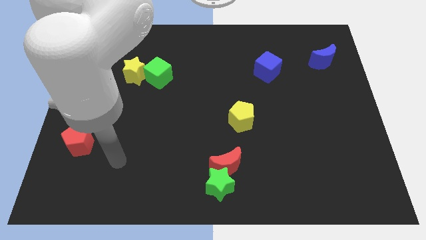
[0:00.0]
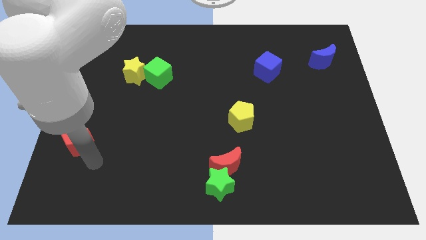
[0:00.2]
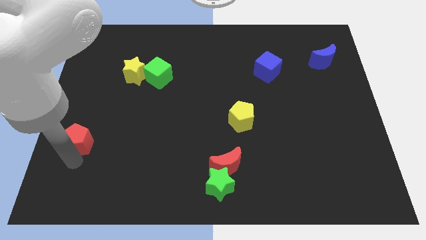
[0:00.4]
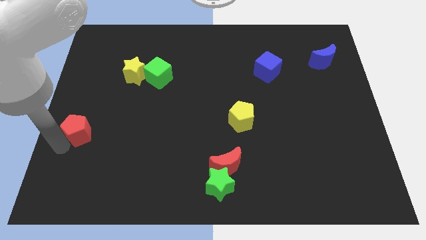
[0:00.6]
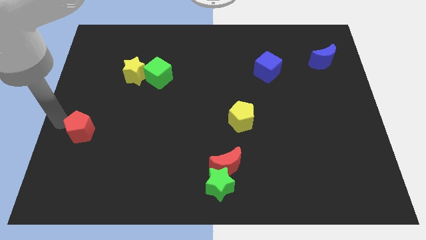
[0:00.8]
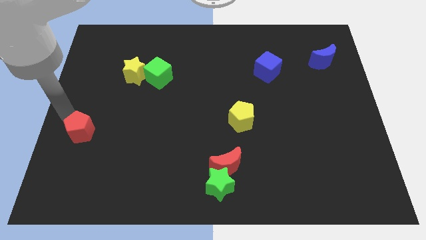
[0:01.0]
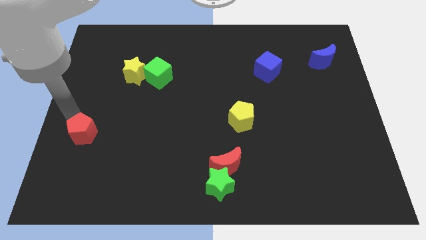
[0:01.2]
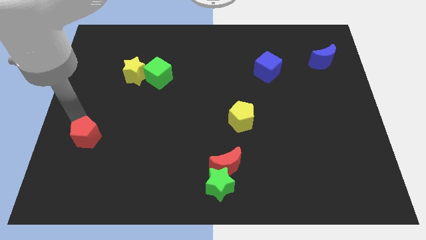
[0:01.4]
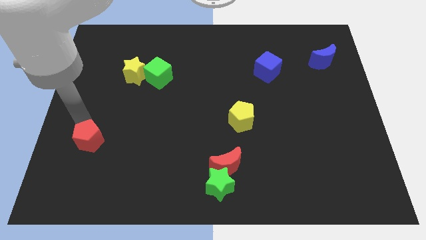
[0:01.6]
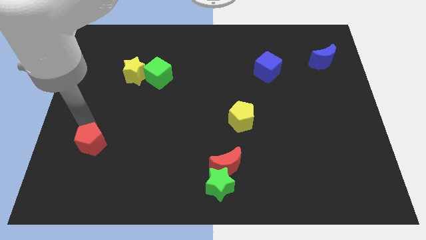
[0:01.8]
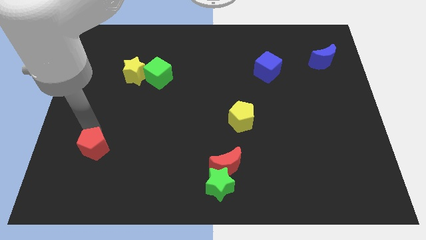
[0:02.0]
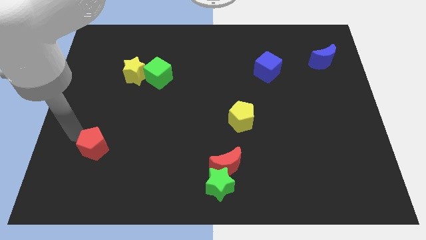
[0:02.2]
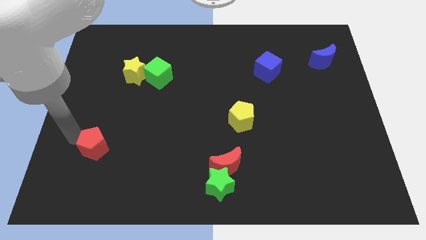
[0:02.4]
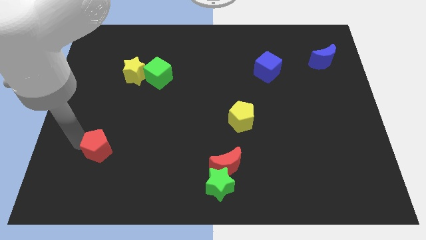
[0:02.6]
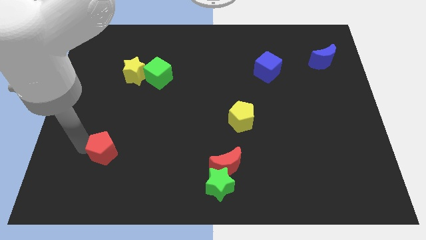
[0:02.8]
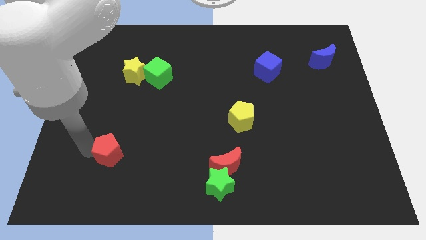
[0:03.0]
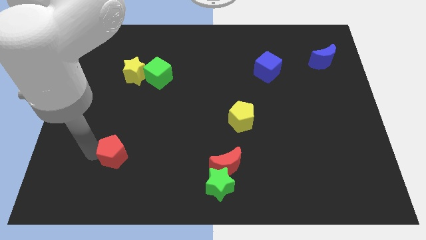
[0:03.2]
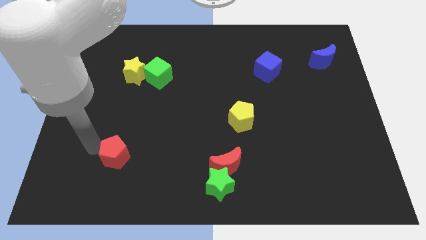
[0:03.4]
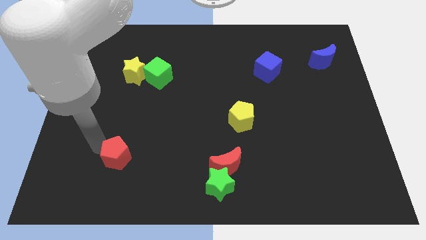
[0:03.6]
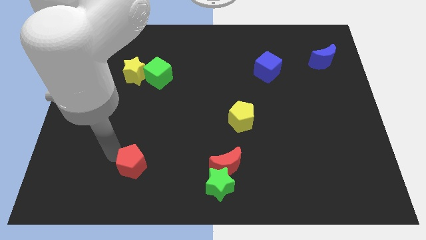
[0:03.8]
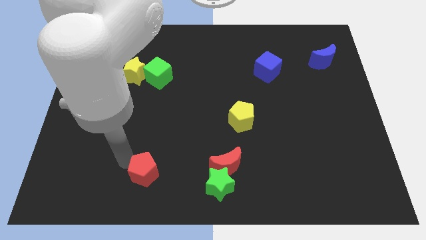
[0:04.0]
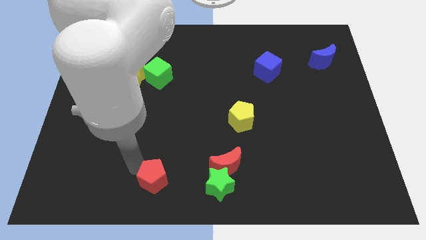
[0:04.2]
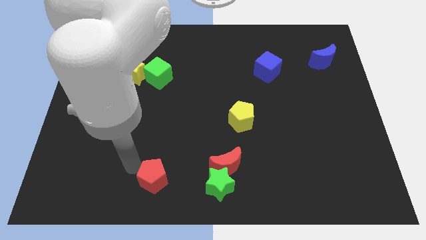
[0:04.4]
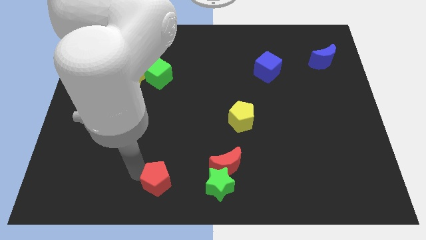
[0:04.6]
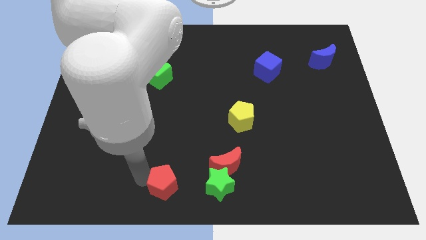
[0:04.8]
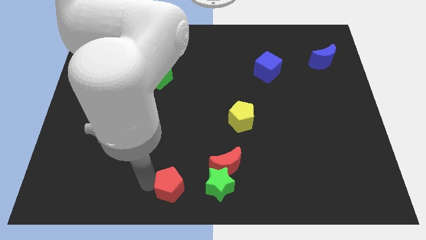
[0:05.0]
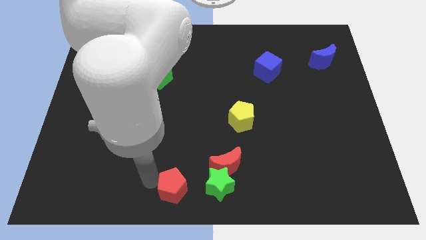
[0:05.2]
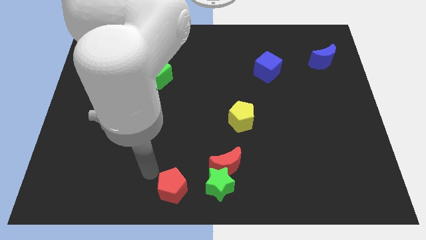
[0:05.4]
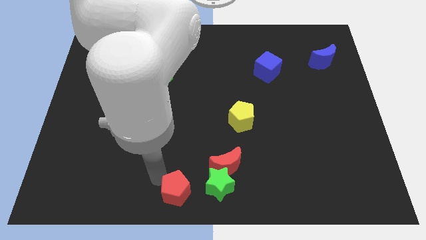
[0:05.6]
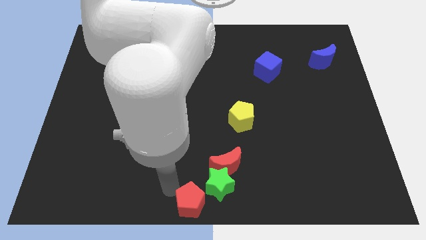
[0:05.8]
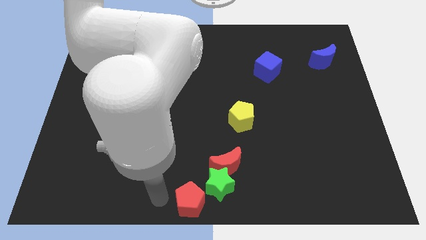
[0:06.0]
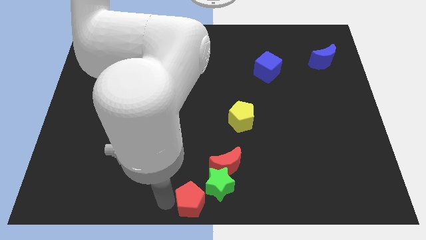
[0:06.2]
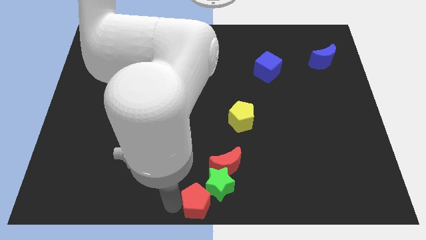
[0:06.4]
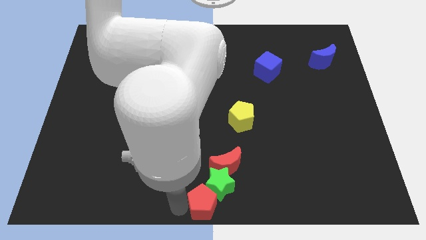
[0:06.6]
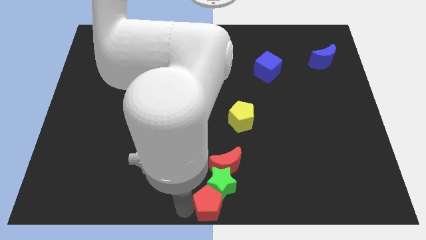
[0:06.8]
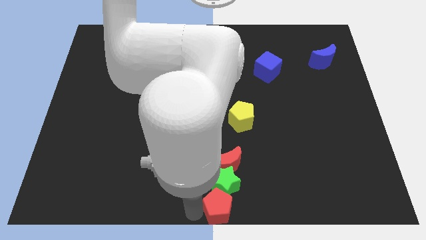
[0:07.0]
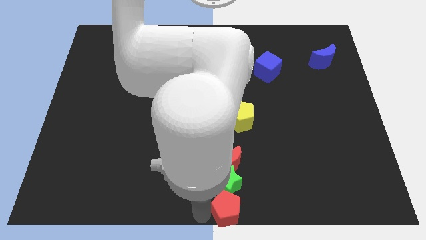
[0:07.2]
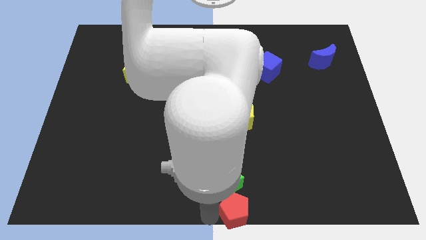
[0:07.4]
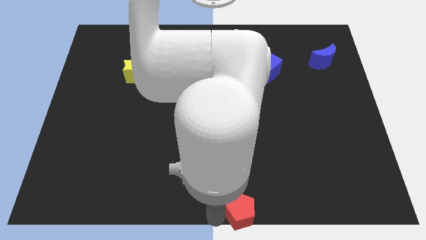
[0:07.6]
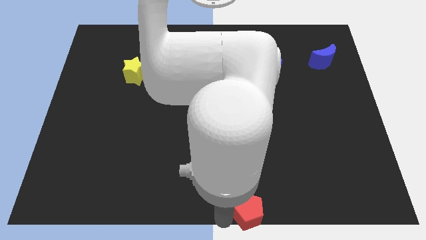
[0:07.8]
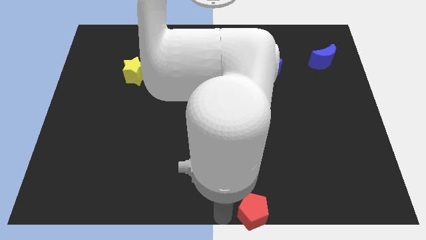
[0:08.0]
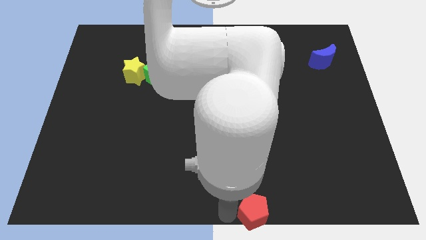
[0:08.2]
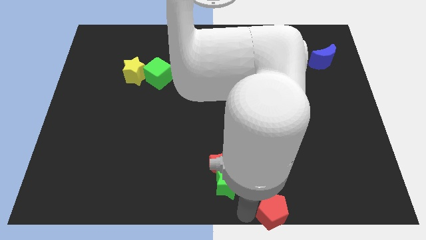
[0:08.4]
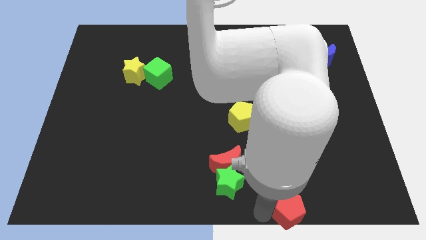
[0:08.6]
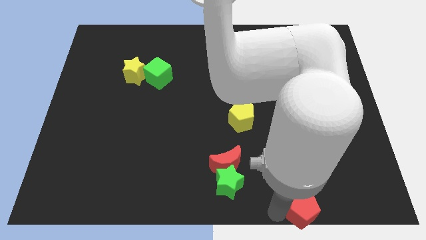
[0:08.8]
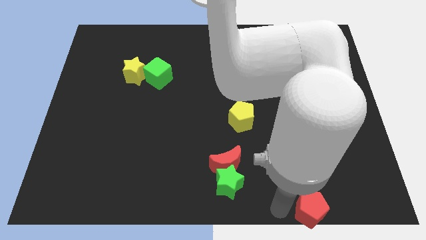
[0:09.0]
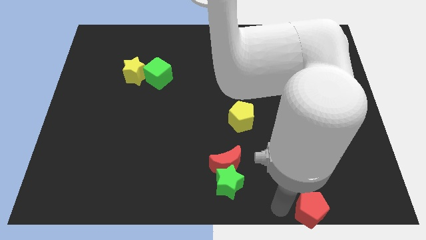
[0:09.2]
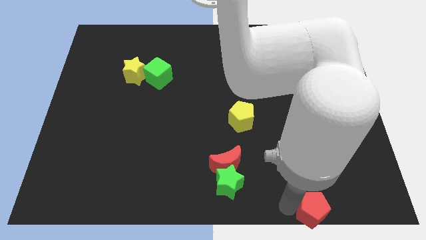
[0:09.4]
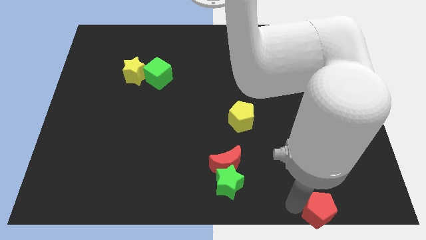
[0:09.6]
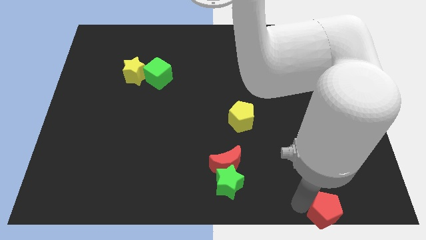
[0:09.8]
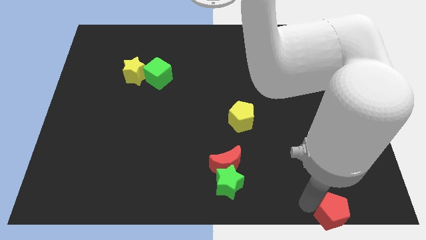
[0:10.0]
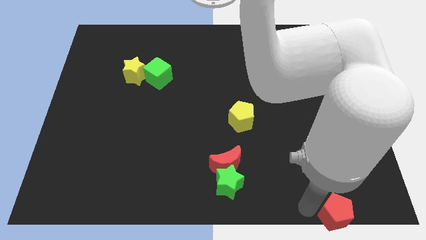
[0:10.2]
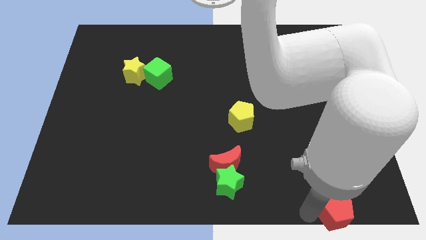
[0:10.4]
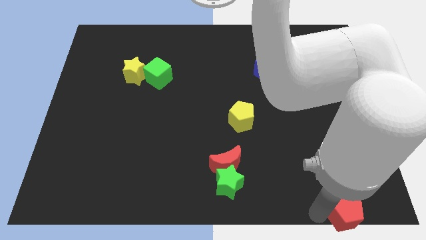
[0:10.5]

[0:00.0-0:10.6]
move the red pentagon to the lower right corner

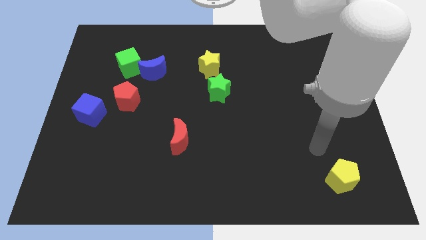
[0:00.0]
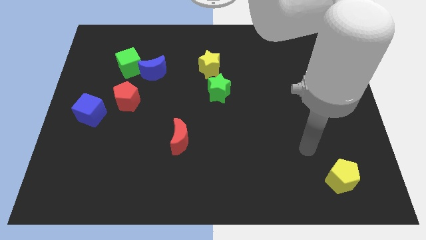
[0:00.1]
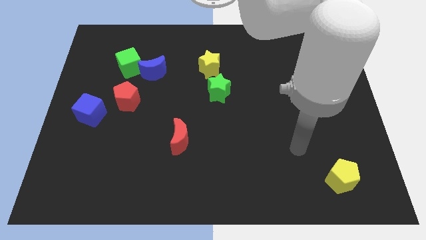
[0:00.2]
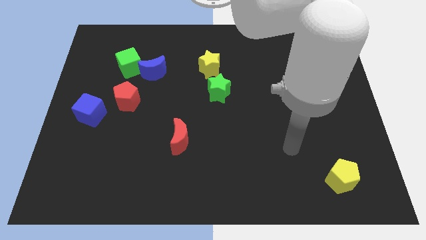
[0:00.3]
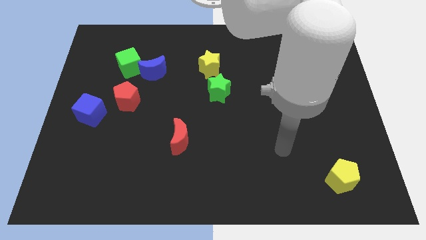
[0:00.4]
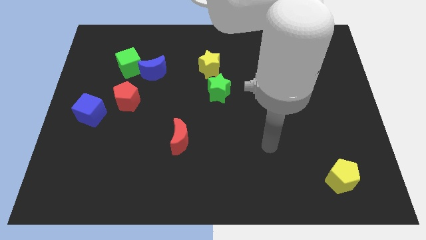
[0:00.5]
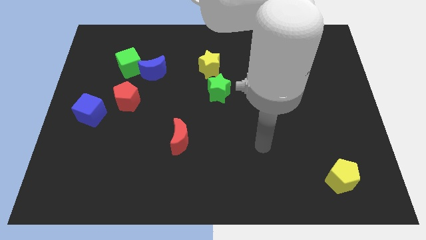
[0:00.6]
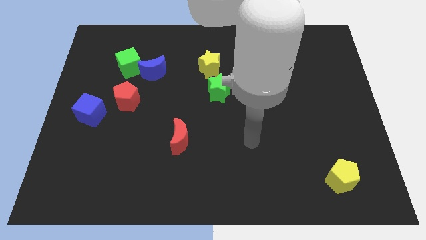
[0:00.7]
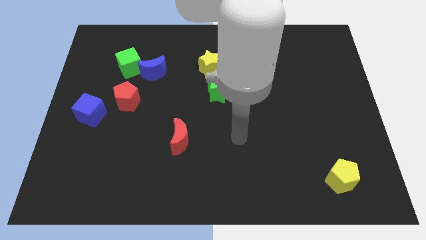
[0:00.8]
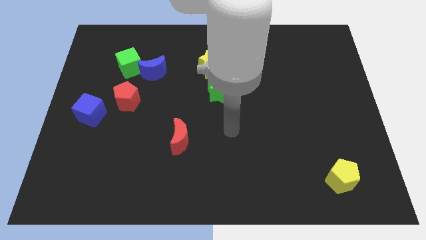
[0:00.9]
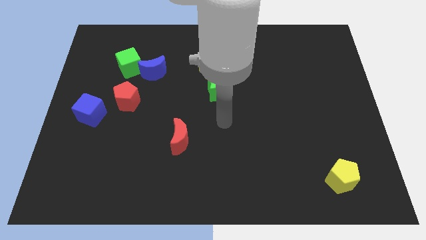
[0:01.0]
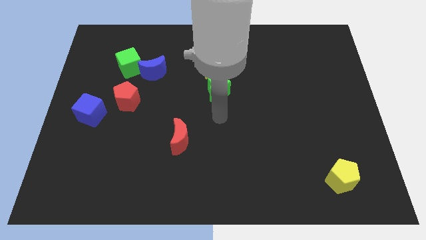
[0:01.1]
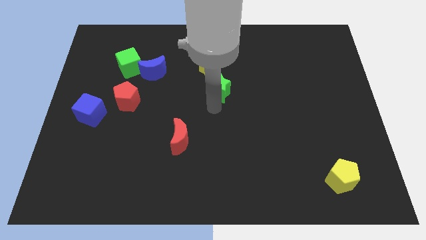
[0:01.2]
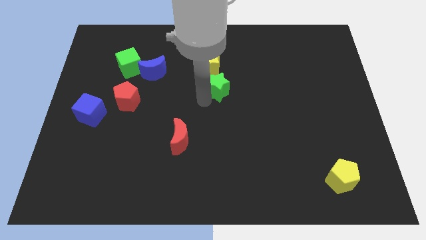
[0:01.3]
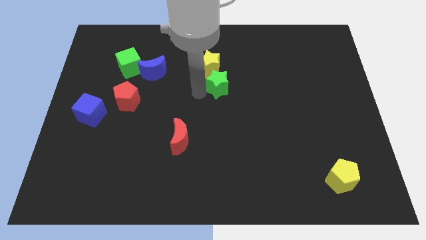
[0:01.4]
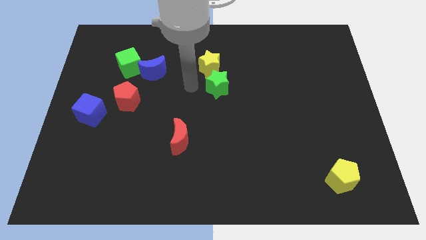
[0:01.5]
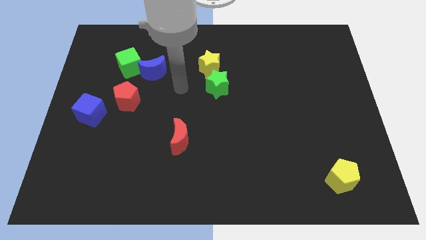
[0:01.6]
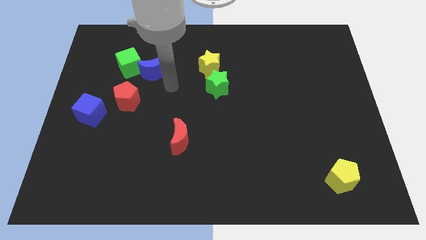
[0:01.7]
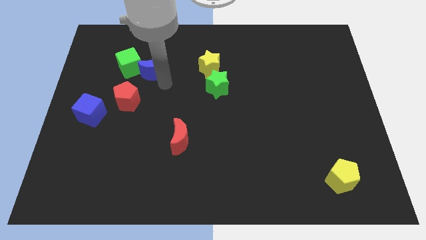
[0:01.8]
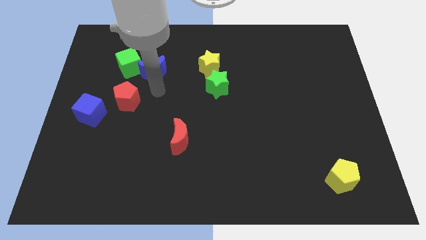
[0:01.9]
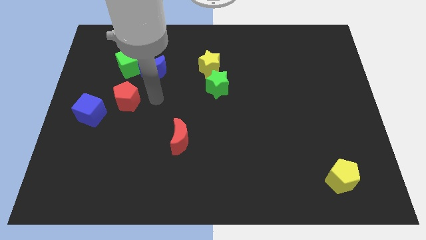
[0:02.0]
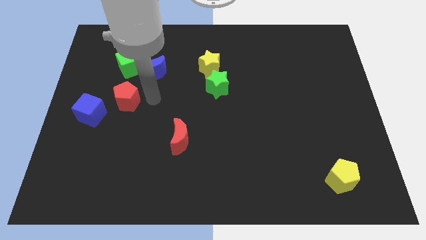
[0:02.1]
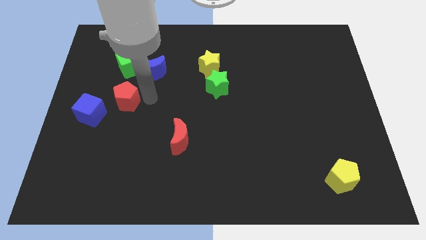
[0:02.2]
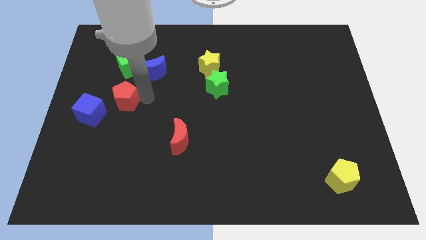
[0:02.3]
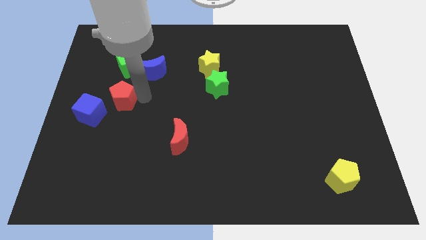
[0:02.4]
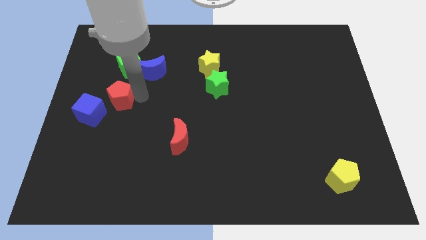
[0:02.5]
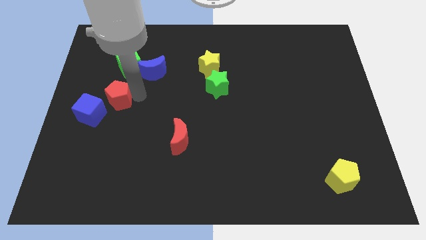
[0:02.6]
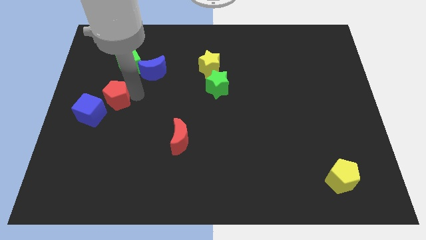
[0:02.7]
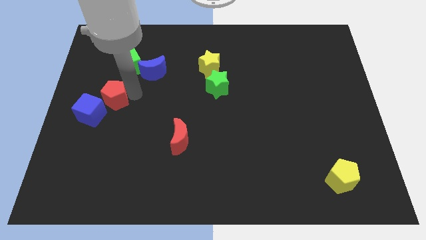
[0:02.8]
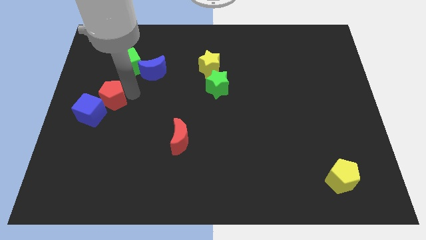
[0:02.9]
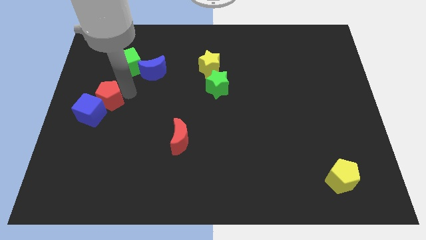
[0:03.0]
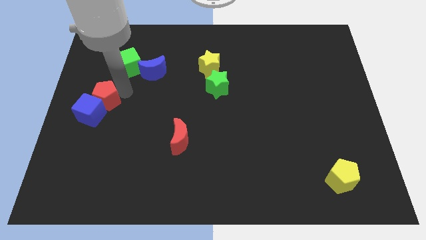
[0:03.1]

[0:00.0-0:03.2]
move the red pentagon to the center left
